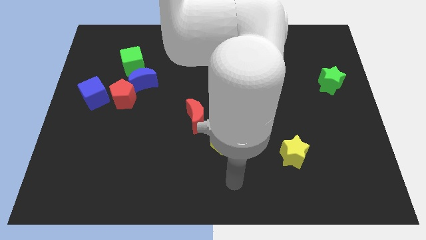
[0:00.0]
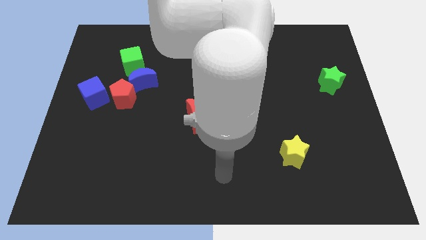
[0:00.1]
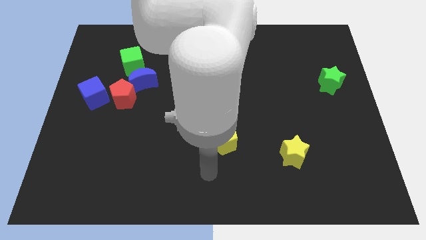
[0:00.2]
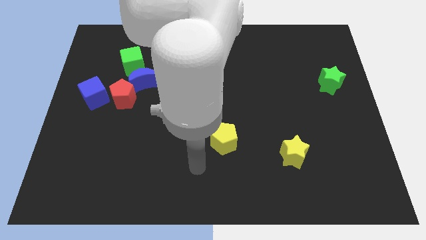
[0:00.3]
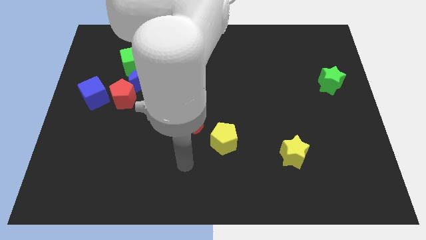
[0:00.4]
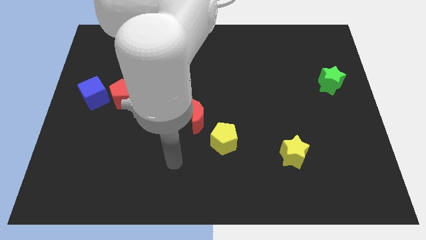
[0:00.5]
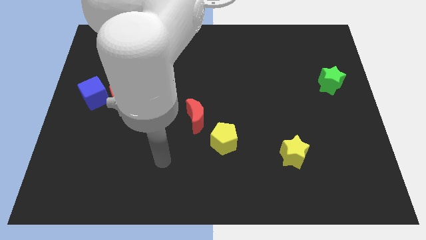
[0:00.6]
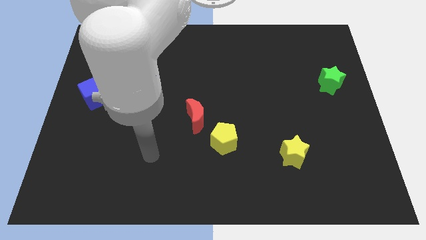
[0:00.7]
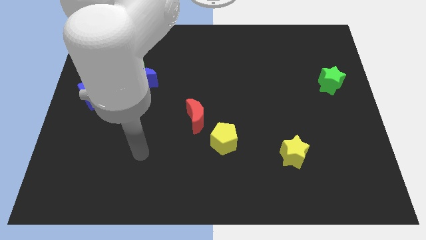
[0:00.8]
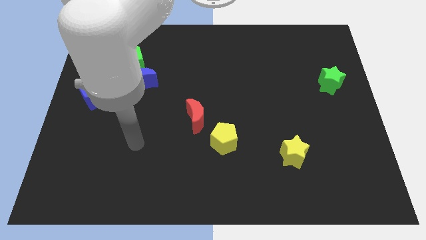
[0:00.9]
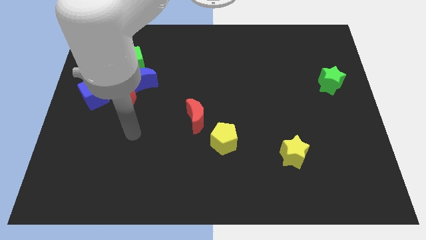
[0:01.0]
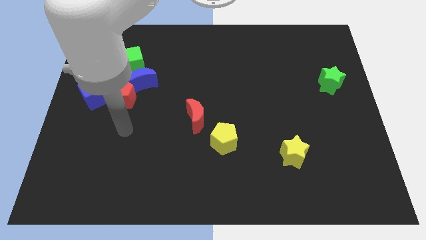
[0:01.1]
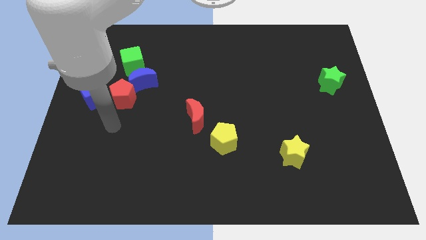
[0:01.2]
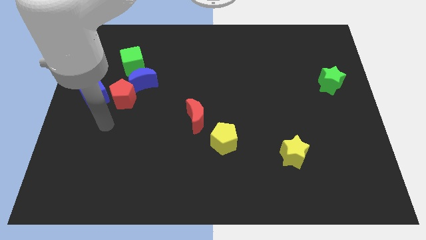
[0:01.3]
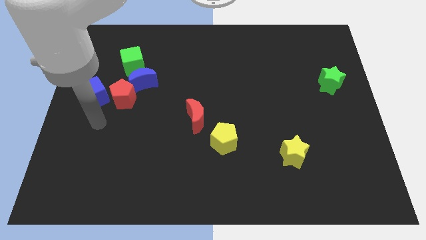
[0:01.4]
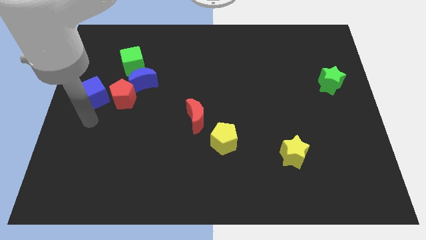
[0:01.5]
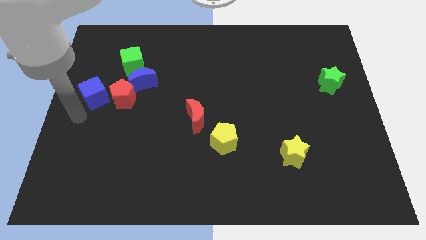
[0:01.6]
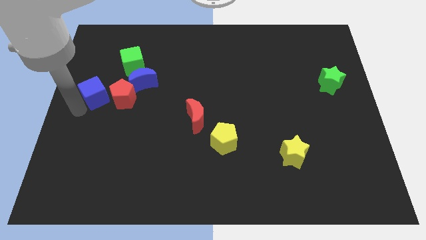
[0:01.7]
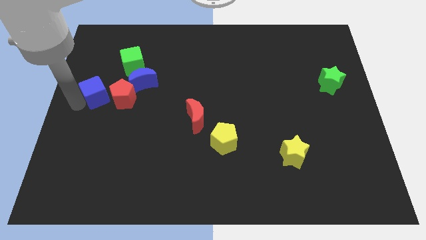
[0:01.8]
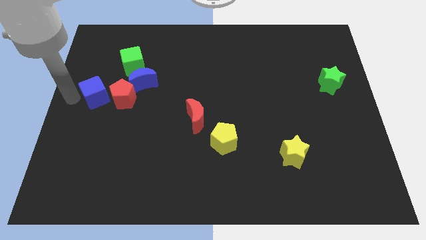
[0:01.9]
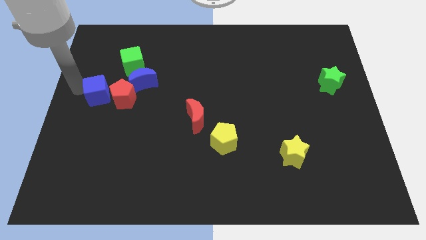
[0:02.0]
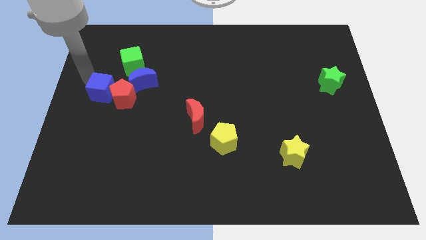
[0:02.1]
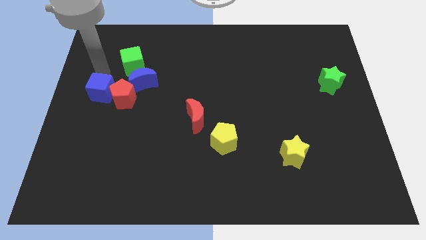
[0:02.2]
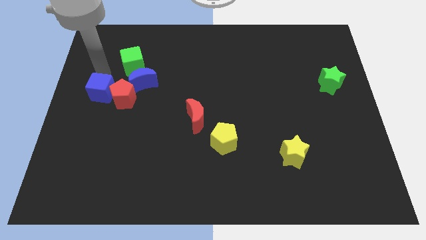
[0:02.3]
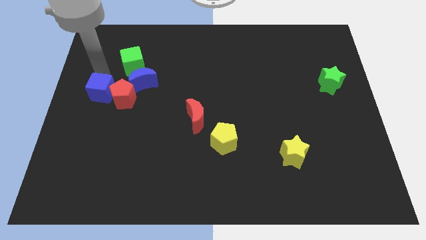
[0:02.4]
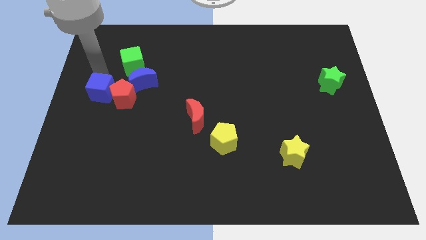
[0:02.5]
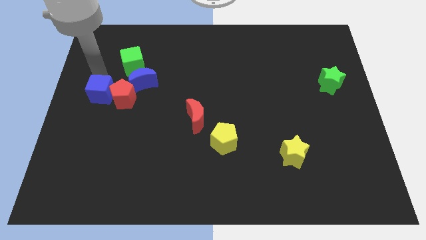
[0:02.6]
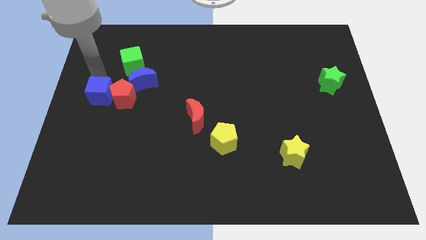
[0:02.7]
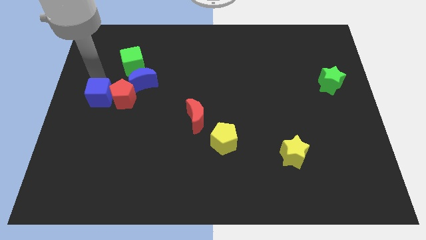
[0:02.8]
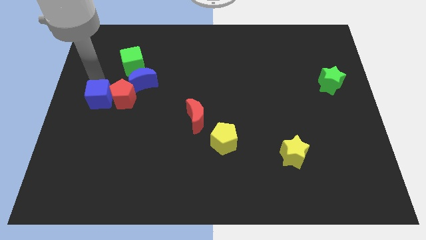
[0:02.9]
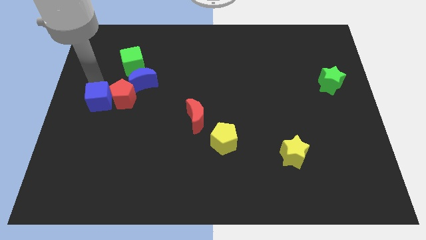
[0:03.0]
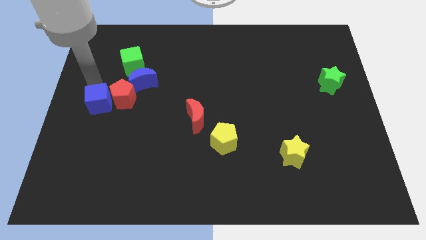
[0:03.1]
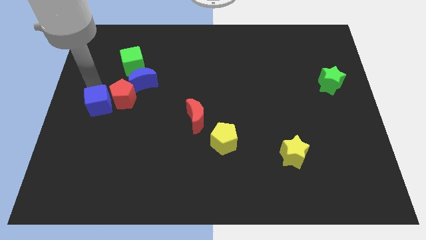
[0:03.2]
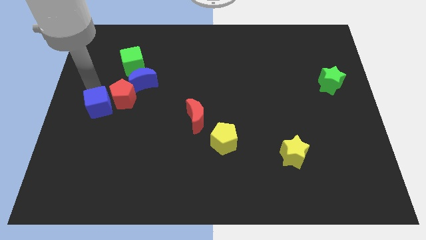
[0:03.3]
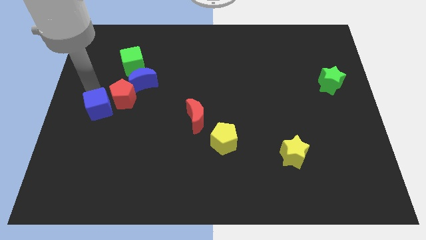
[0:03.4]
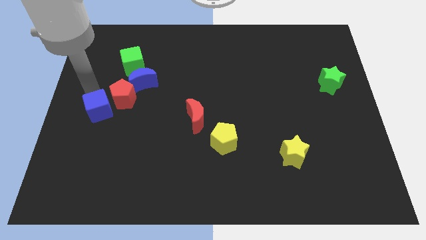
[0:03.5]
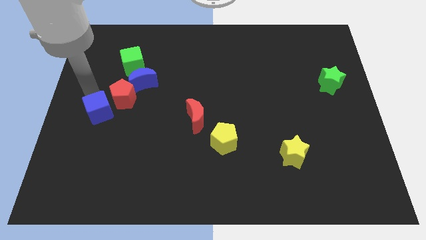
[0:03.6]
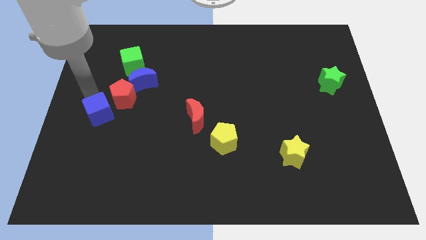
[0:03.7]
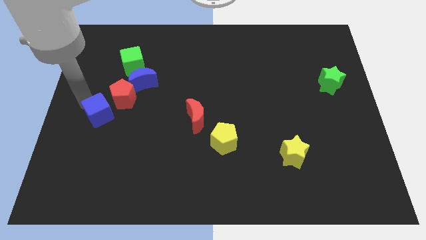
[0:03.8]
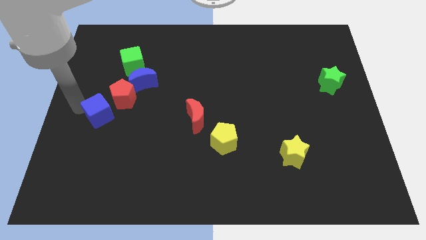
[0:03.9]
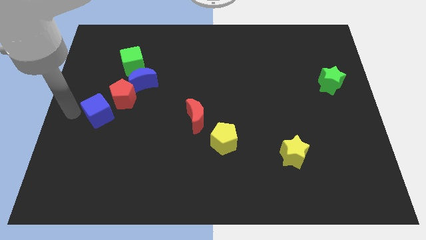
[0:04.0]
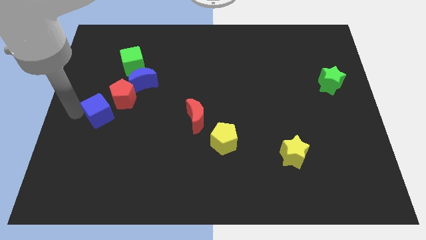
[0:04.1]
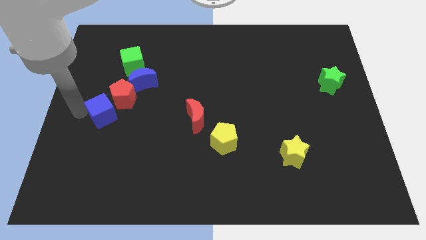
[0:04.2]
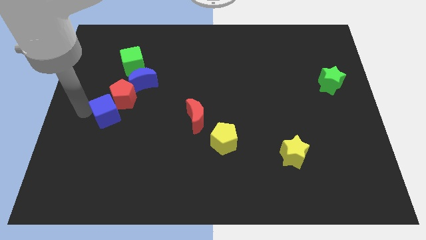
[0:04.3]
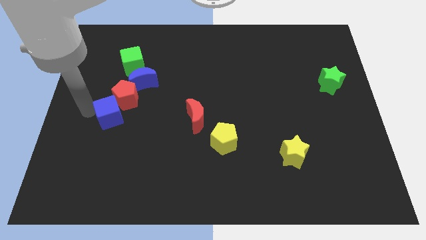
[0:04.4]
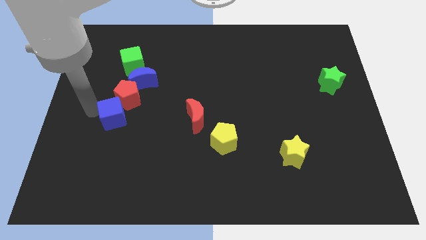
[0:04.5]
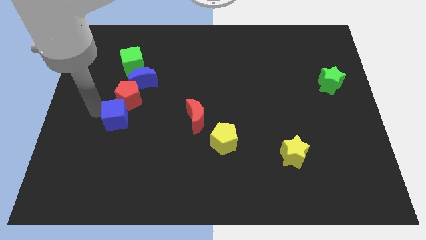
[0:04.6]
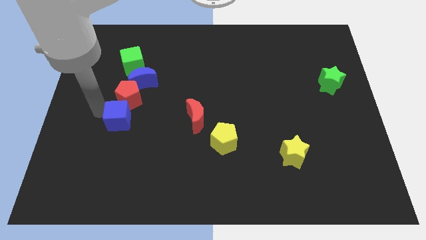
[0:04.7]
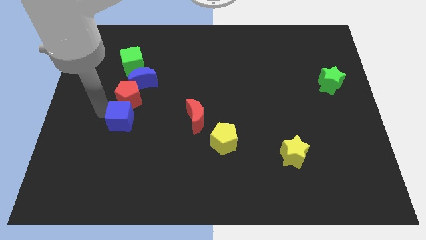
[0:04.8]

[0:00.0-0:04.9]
slide the blue cube to the bottom right side of the red pentagon

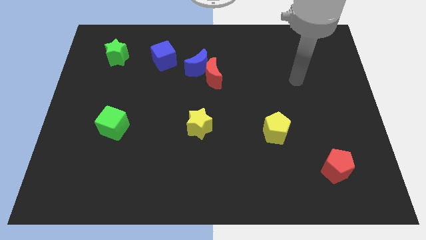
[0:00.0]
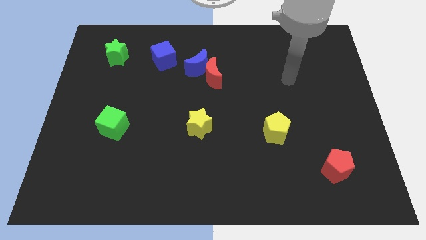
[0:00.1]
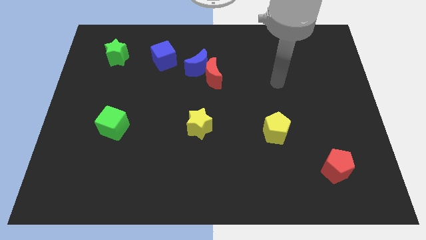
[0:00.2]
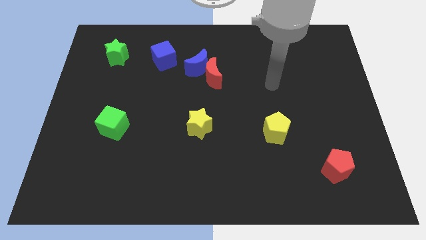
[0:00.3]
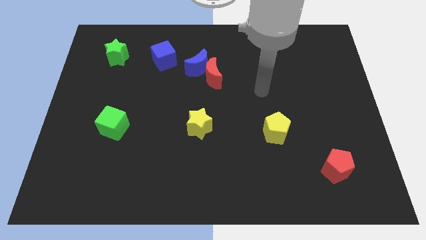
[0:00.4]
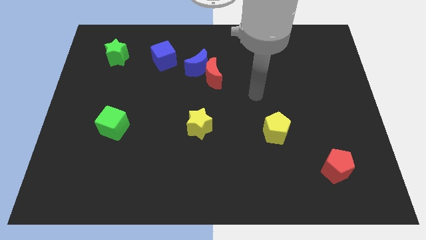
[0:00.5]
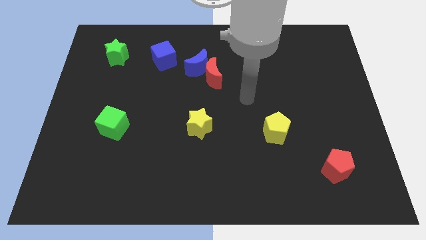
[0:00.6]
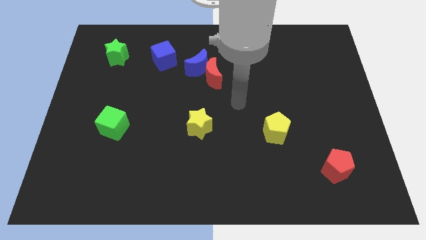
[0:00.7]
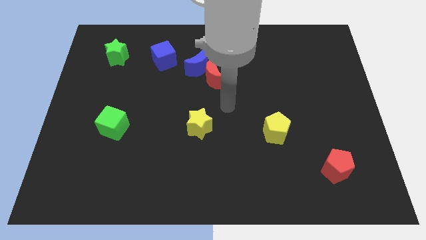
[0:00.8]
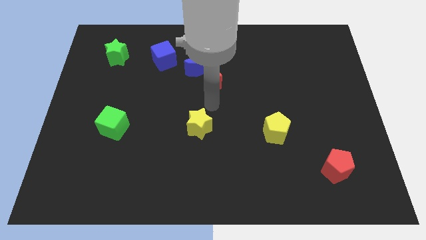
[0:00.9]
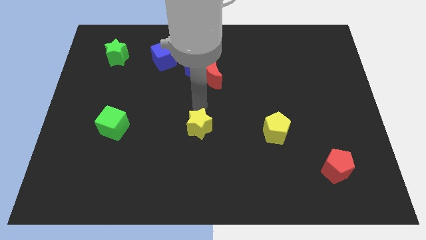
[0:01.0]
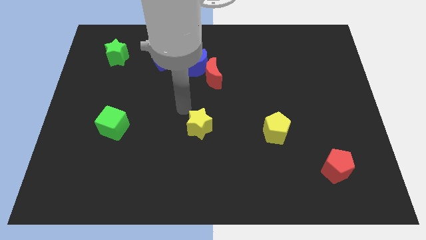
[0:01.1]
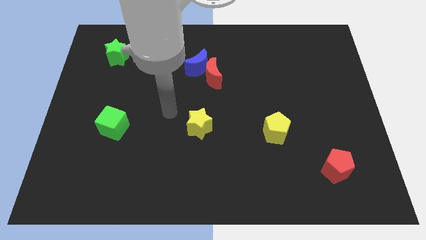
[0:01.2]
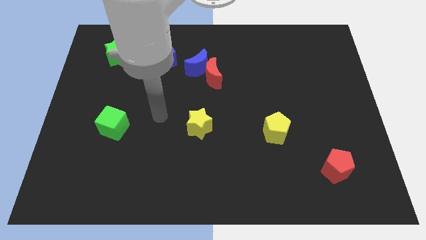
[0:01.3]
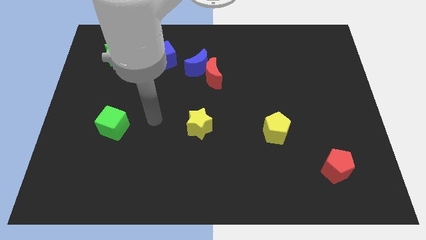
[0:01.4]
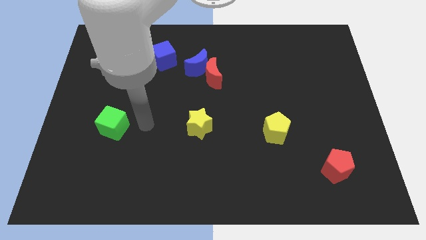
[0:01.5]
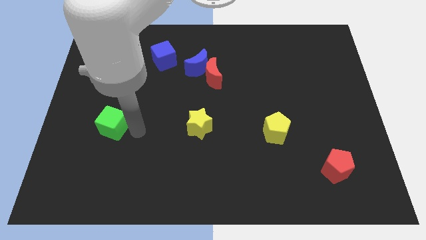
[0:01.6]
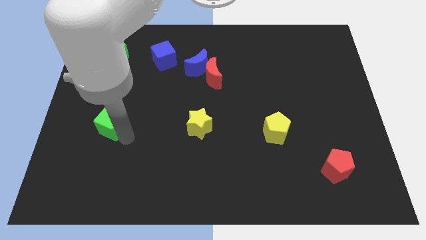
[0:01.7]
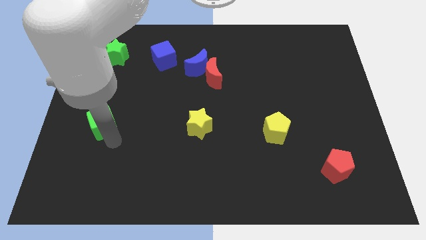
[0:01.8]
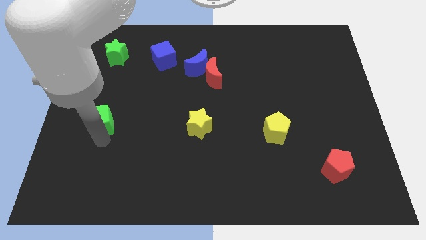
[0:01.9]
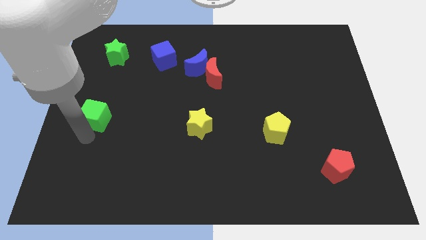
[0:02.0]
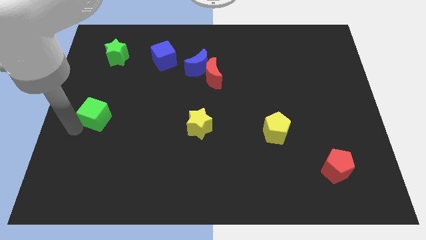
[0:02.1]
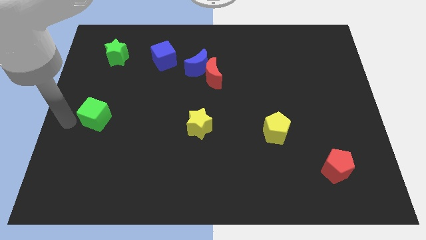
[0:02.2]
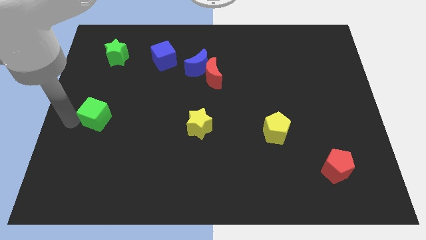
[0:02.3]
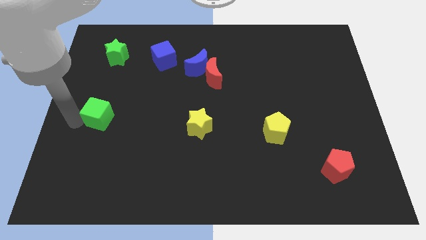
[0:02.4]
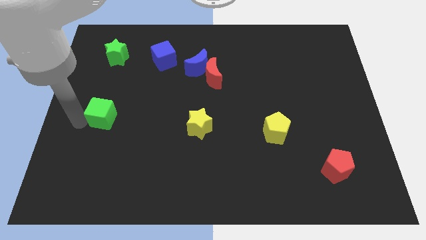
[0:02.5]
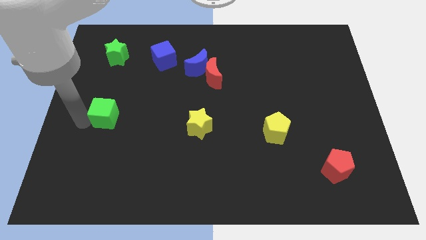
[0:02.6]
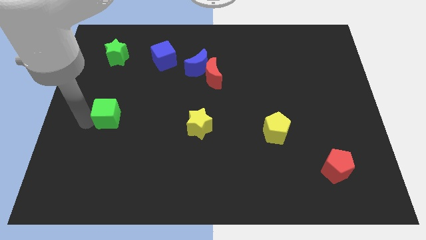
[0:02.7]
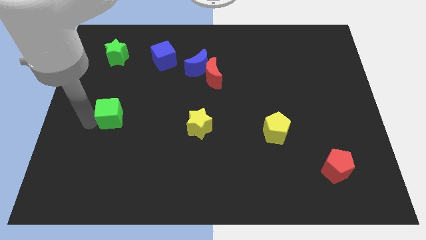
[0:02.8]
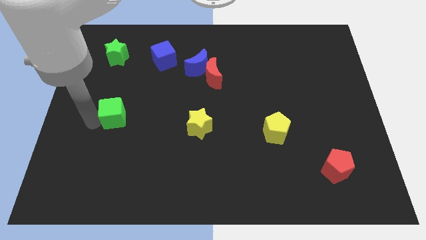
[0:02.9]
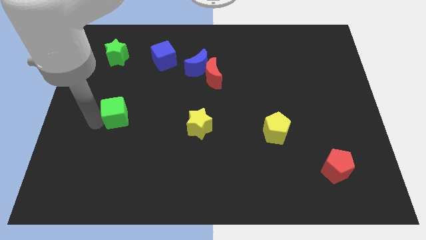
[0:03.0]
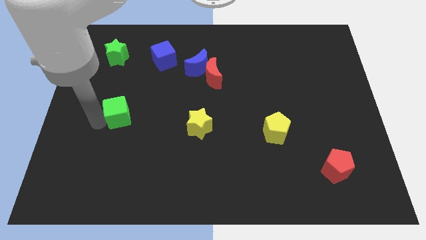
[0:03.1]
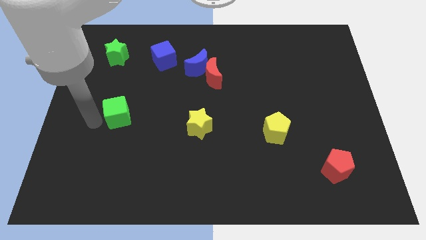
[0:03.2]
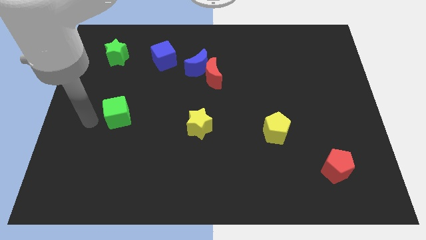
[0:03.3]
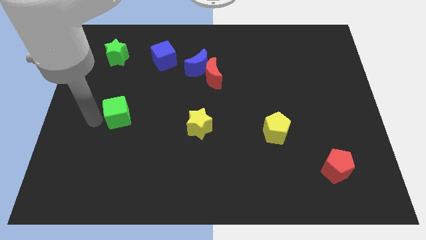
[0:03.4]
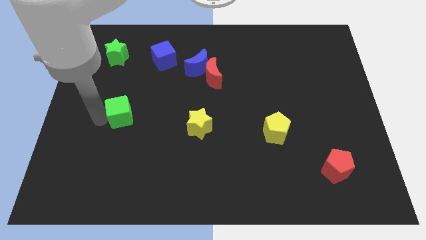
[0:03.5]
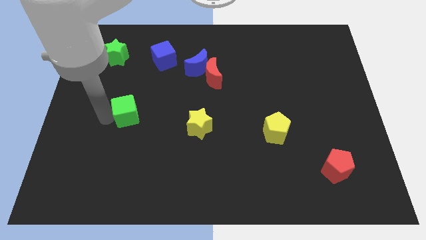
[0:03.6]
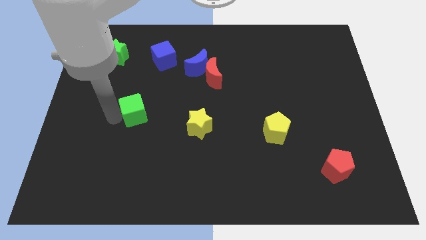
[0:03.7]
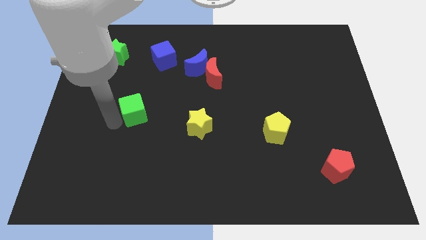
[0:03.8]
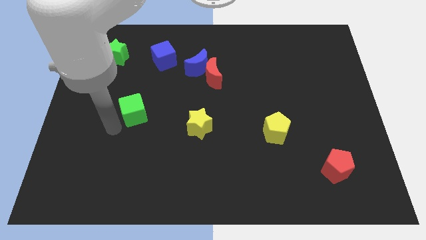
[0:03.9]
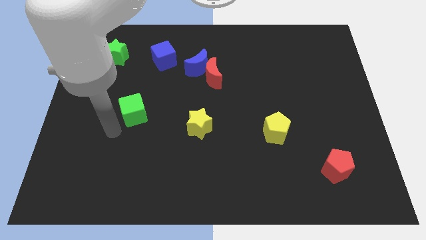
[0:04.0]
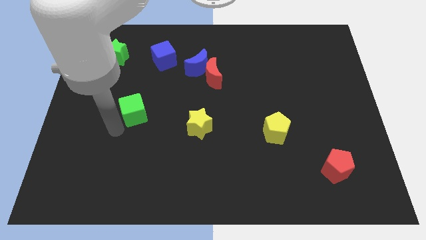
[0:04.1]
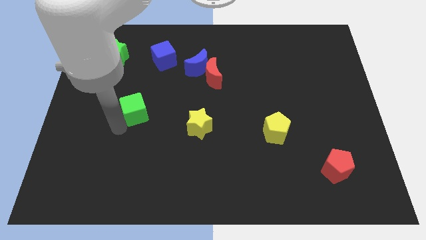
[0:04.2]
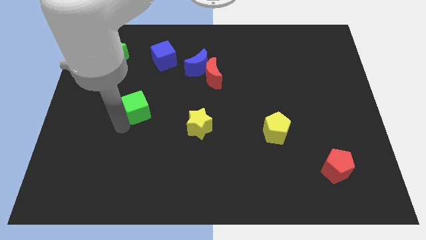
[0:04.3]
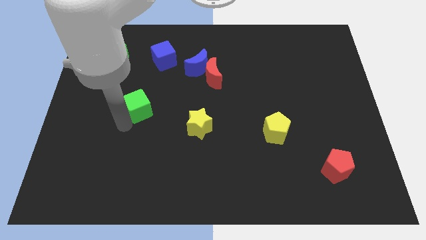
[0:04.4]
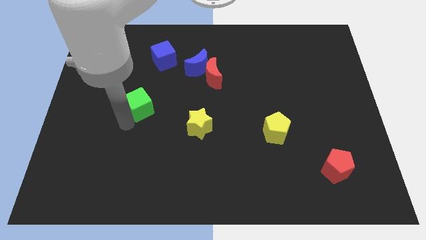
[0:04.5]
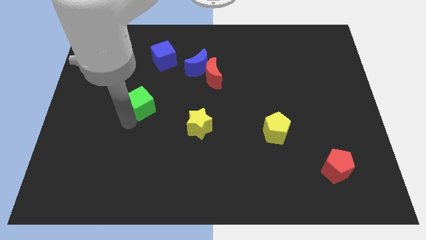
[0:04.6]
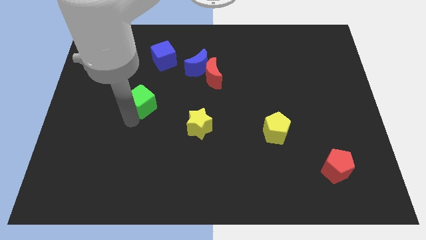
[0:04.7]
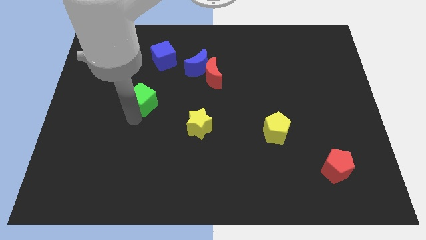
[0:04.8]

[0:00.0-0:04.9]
move the green cube to the bottom of the blue cube
